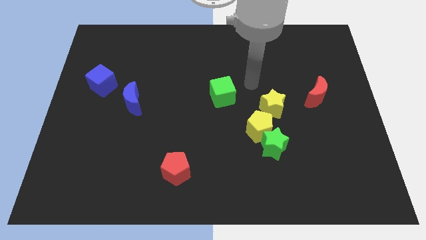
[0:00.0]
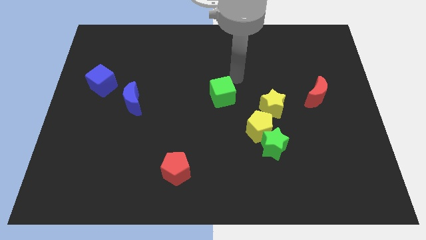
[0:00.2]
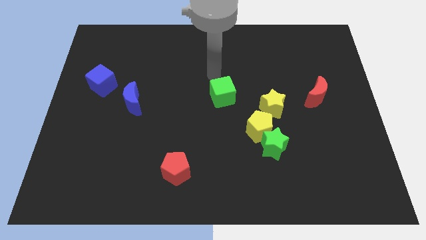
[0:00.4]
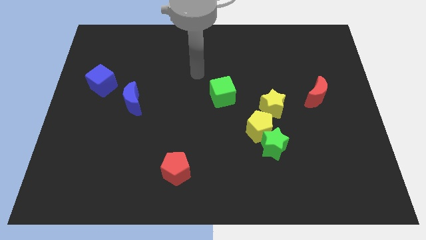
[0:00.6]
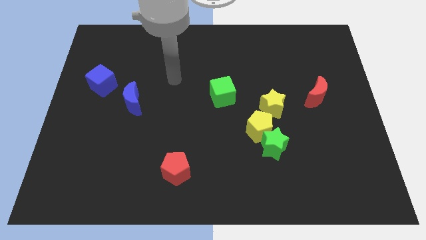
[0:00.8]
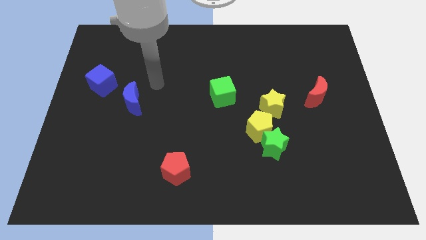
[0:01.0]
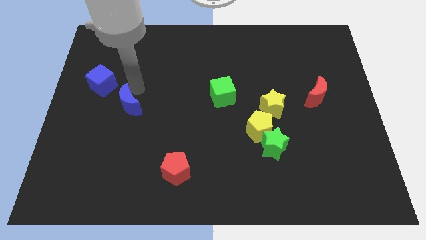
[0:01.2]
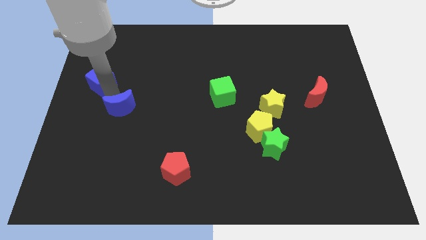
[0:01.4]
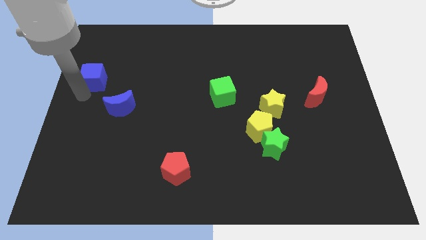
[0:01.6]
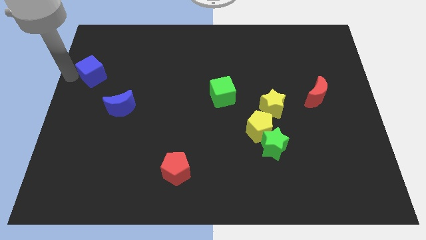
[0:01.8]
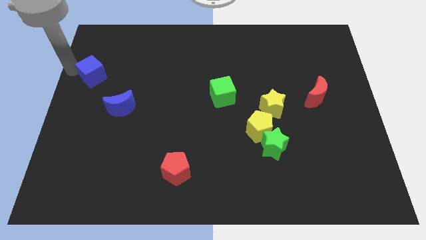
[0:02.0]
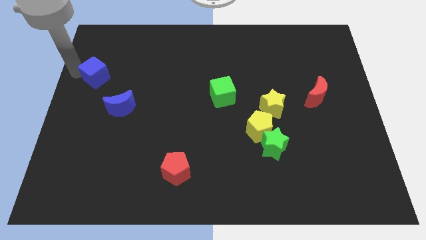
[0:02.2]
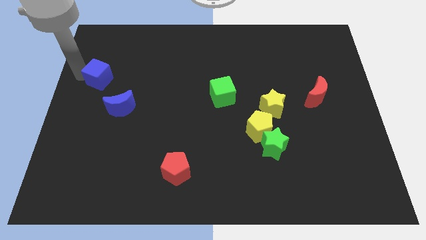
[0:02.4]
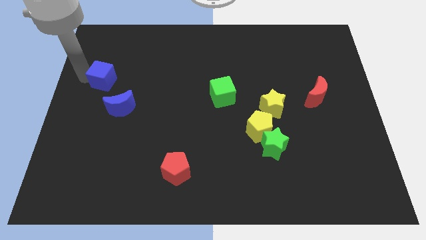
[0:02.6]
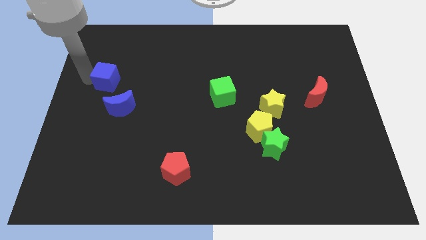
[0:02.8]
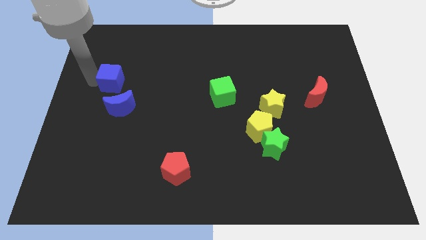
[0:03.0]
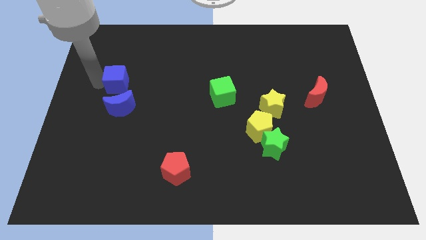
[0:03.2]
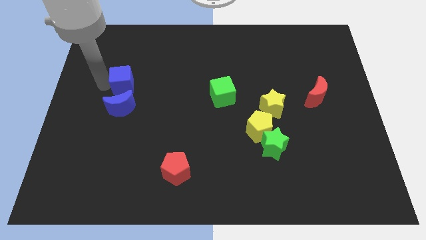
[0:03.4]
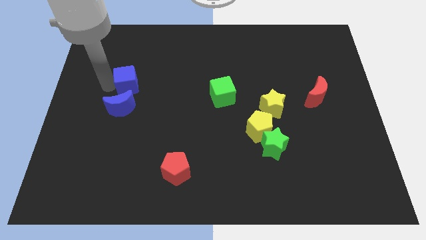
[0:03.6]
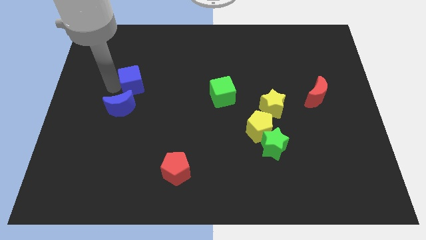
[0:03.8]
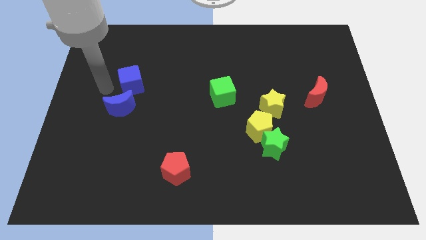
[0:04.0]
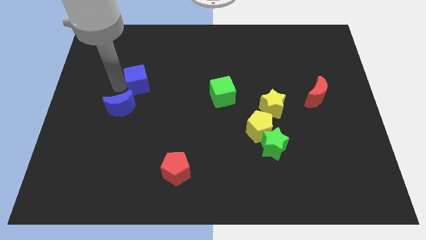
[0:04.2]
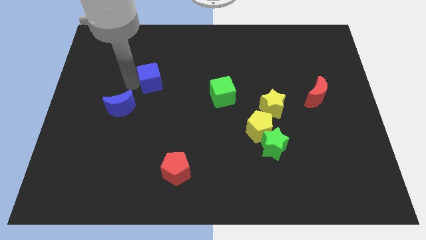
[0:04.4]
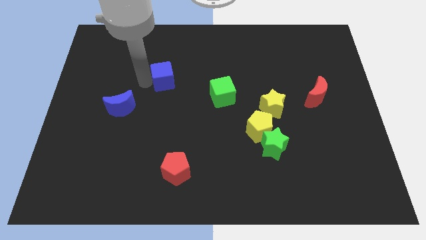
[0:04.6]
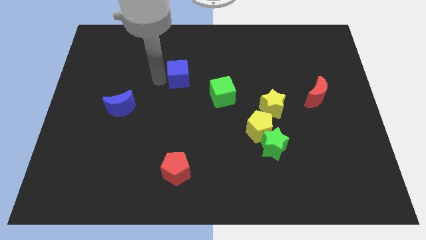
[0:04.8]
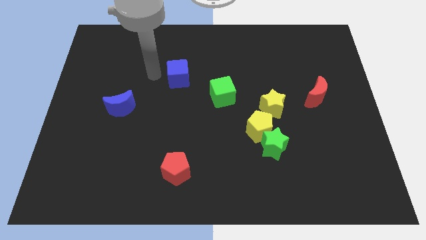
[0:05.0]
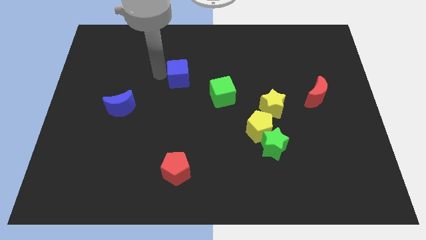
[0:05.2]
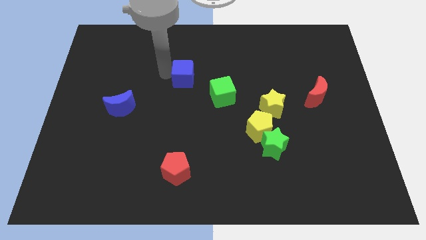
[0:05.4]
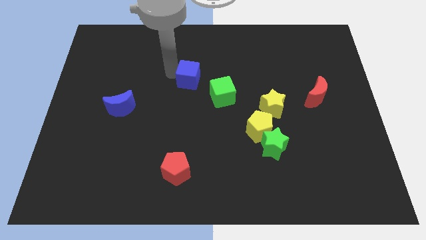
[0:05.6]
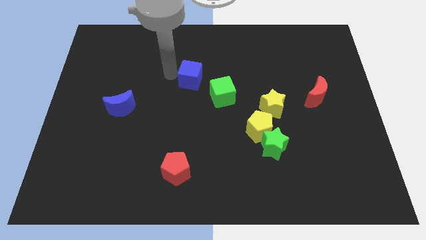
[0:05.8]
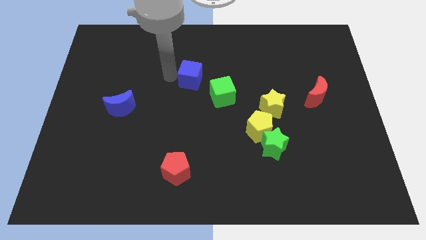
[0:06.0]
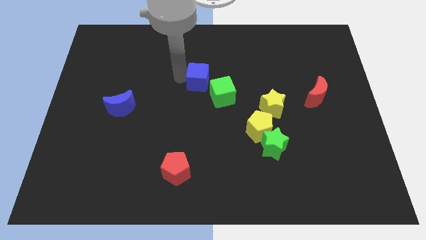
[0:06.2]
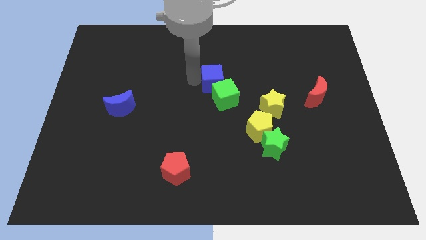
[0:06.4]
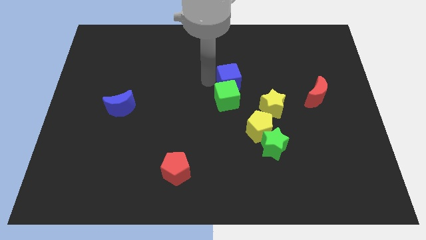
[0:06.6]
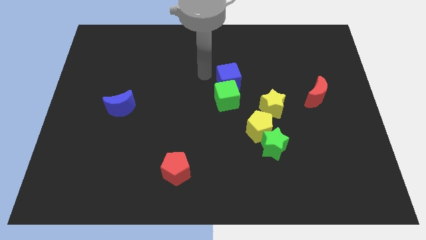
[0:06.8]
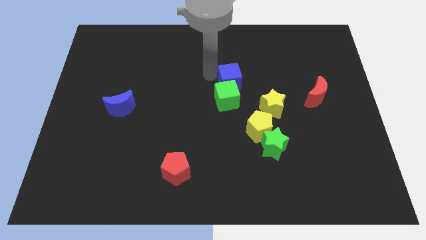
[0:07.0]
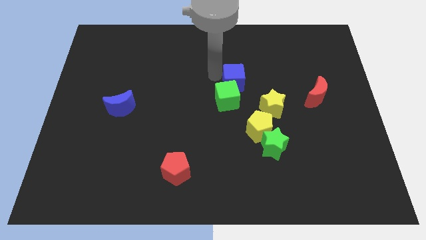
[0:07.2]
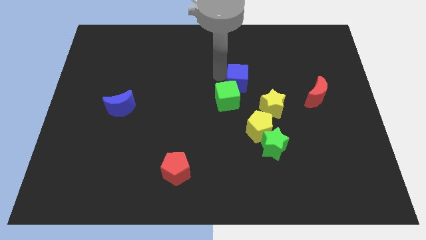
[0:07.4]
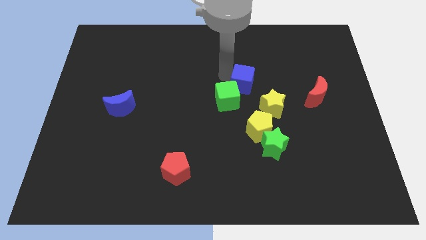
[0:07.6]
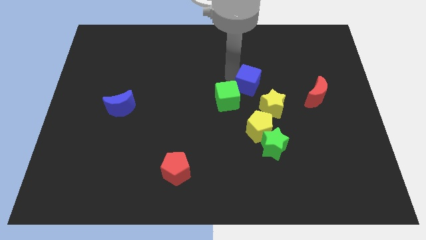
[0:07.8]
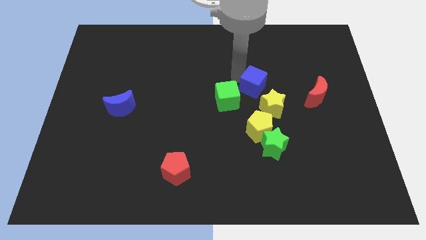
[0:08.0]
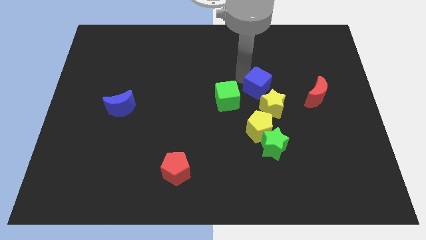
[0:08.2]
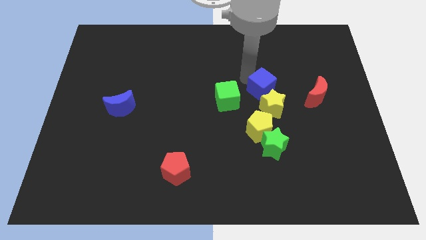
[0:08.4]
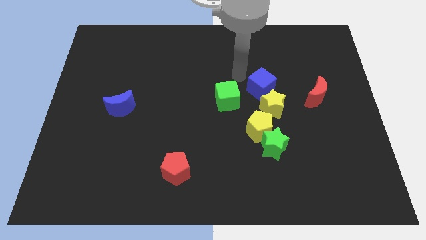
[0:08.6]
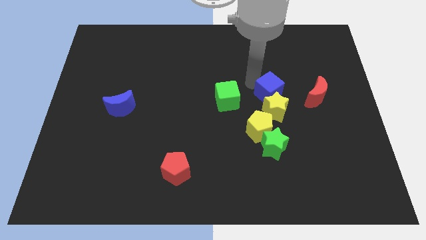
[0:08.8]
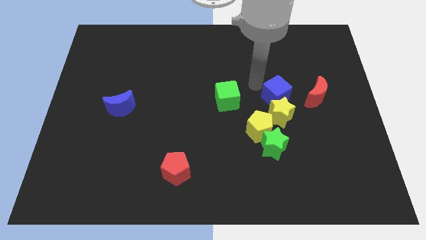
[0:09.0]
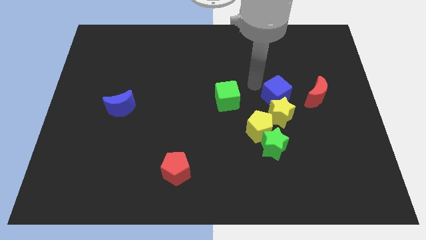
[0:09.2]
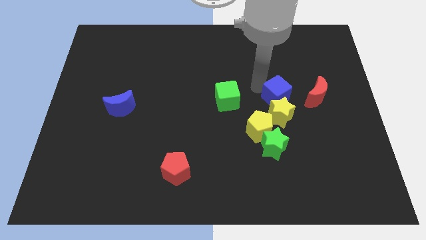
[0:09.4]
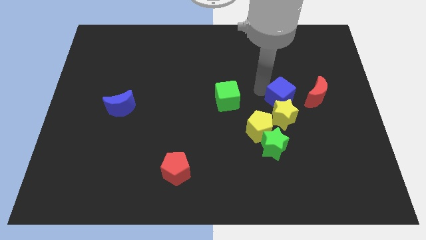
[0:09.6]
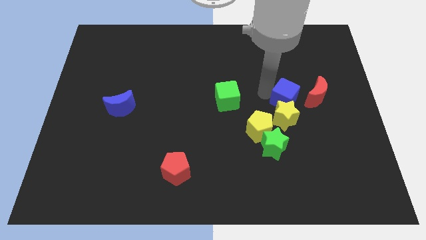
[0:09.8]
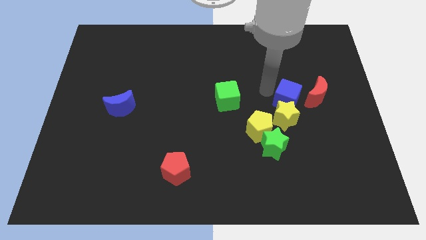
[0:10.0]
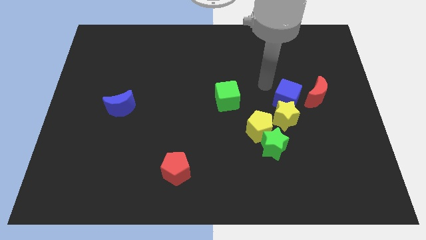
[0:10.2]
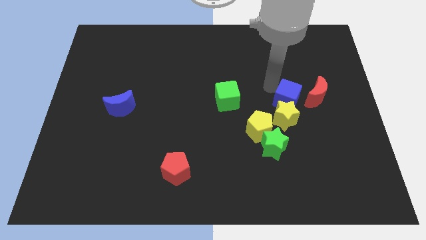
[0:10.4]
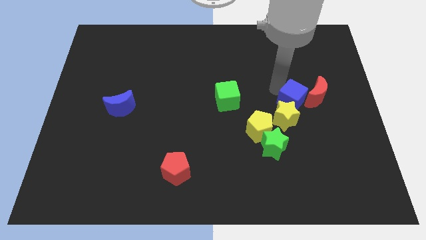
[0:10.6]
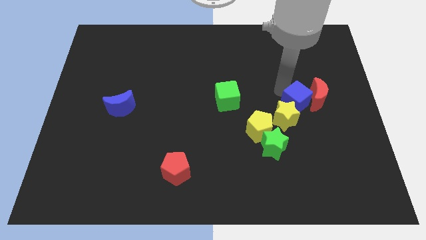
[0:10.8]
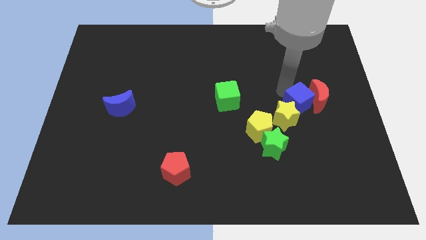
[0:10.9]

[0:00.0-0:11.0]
put the blue cube to the right side of the yellow star

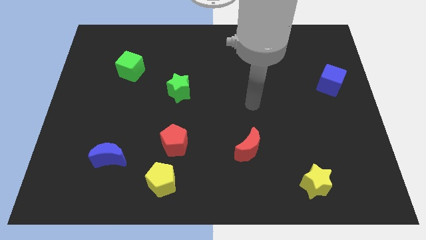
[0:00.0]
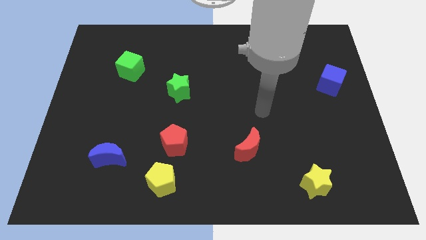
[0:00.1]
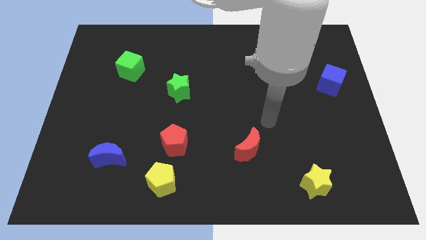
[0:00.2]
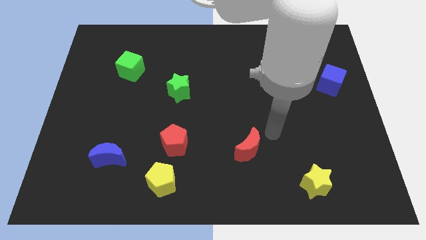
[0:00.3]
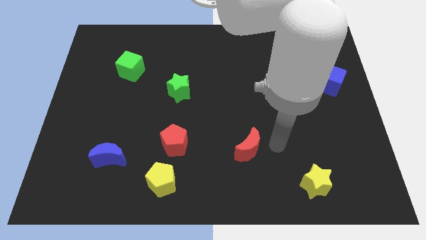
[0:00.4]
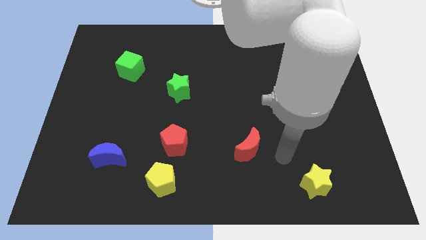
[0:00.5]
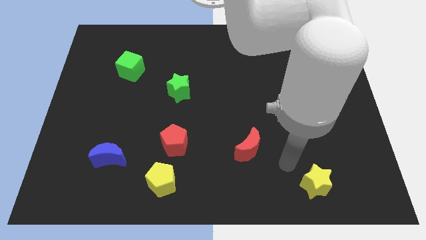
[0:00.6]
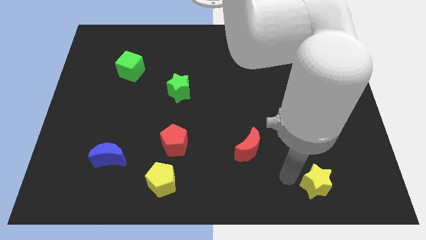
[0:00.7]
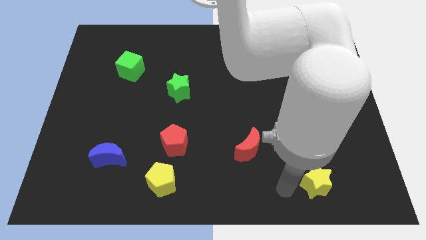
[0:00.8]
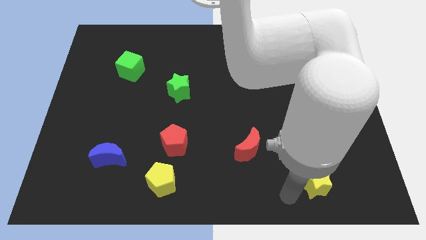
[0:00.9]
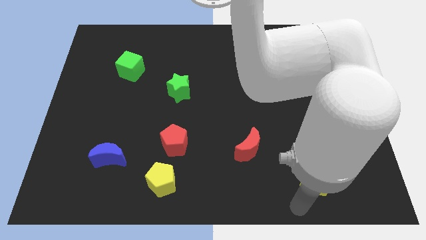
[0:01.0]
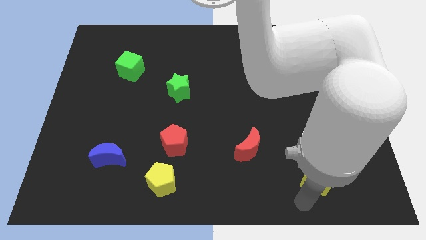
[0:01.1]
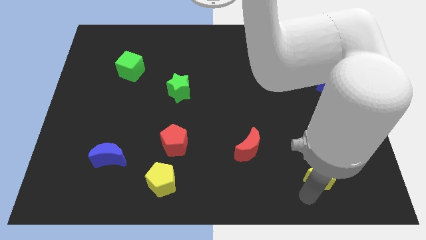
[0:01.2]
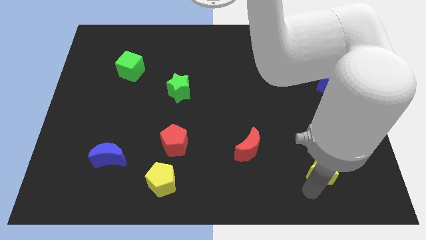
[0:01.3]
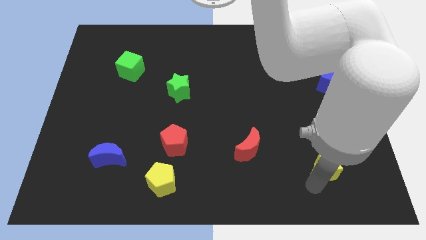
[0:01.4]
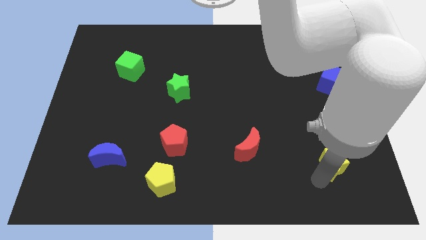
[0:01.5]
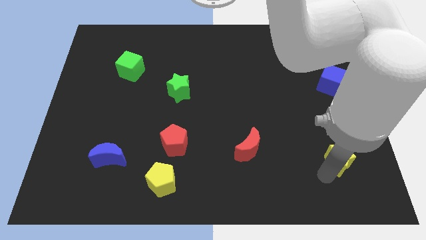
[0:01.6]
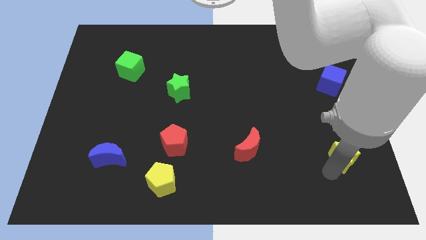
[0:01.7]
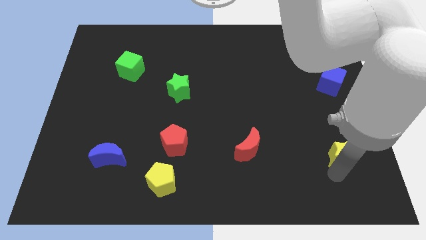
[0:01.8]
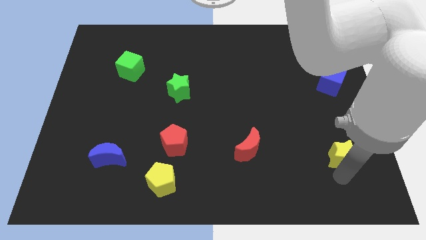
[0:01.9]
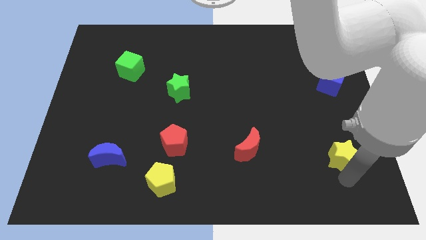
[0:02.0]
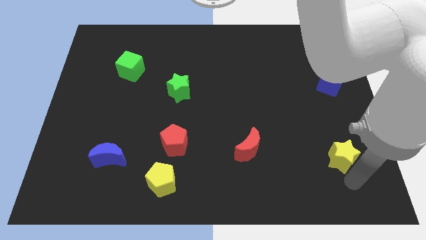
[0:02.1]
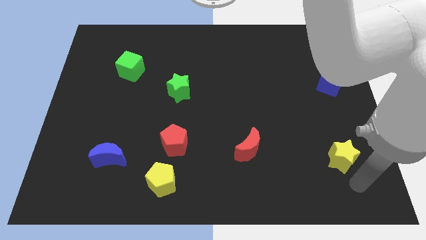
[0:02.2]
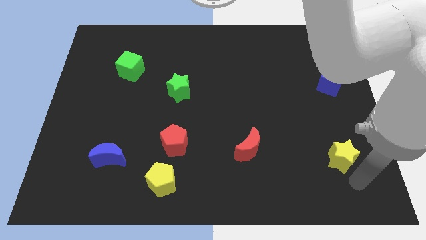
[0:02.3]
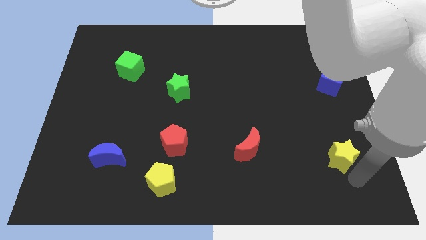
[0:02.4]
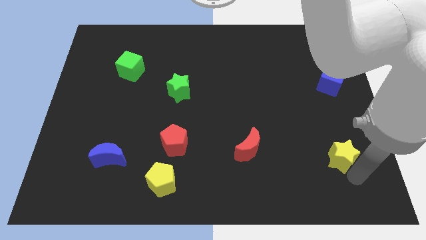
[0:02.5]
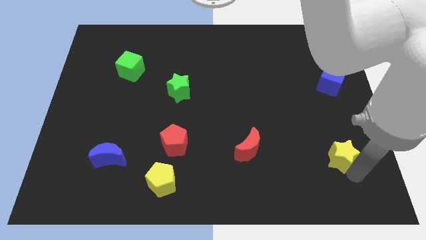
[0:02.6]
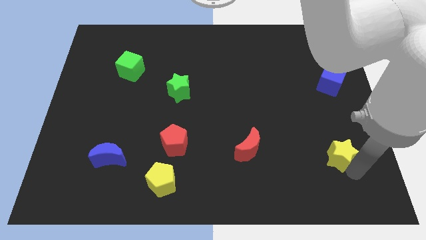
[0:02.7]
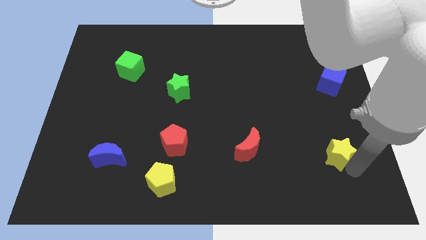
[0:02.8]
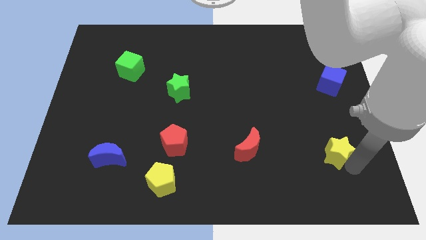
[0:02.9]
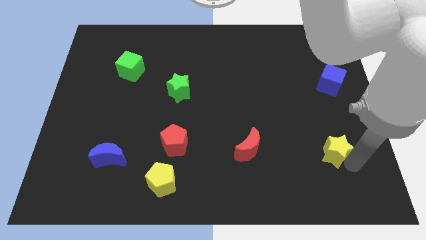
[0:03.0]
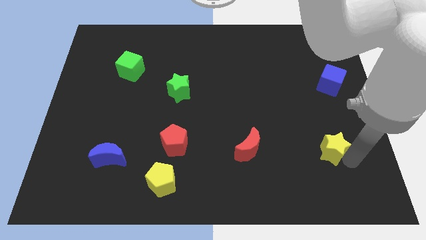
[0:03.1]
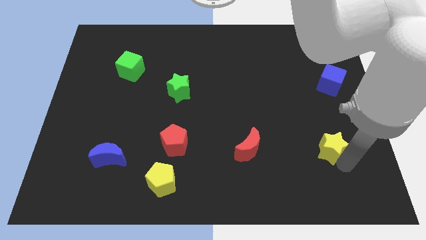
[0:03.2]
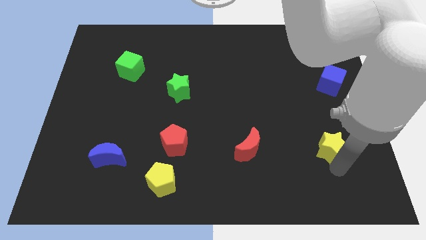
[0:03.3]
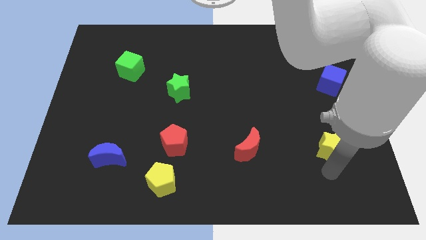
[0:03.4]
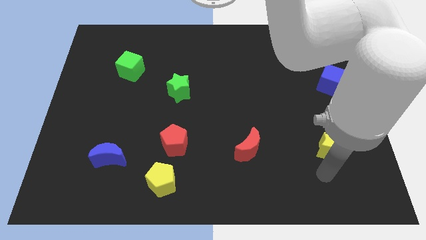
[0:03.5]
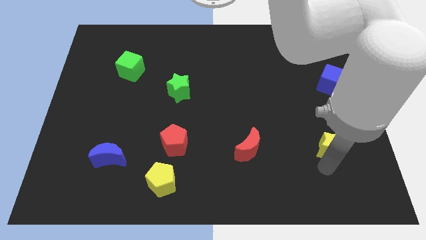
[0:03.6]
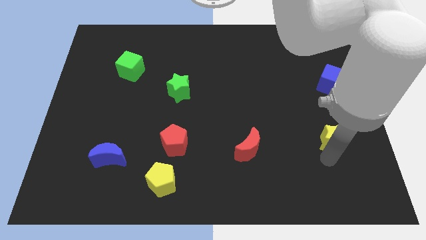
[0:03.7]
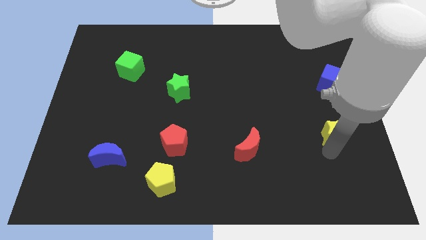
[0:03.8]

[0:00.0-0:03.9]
put the yellow star to the bottom of the blue cube
